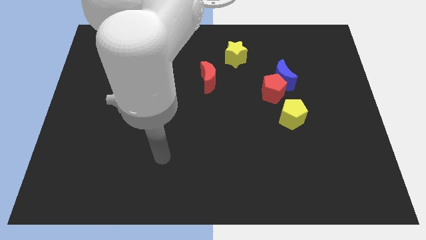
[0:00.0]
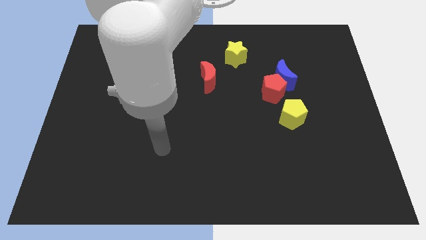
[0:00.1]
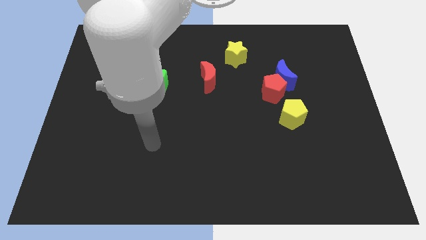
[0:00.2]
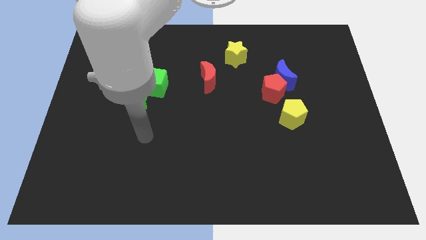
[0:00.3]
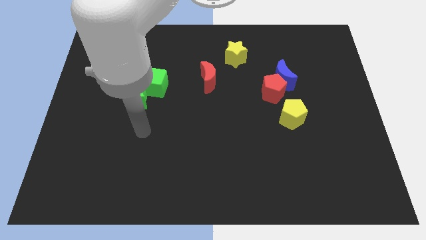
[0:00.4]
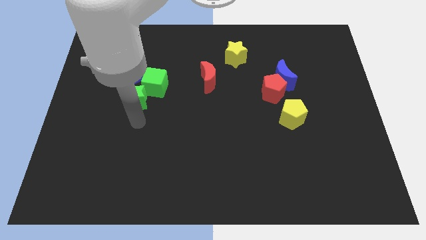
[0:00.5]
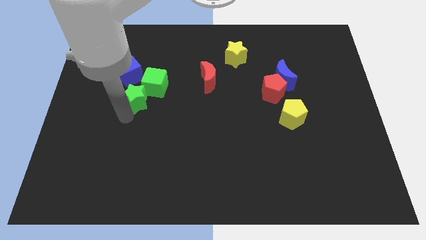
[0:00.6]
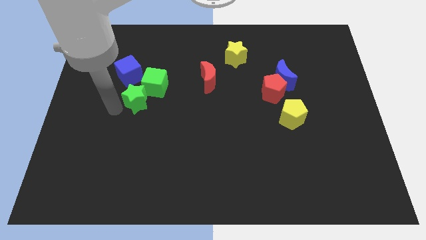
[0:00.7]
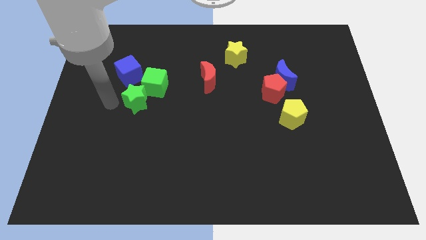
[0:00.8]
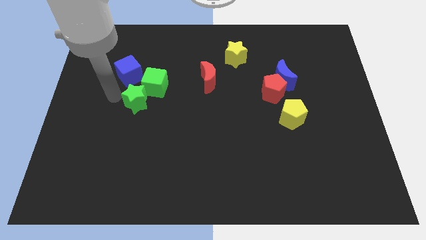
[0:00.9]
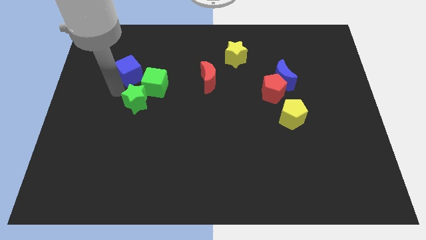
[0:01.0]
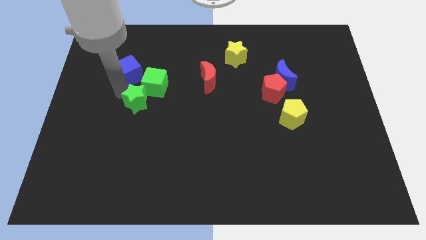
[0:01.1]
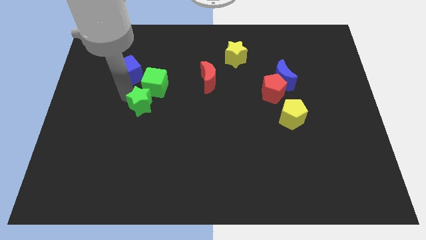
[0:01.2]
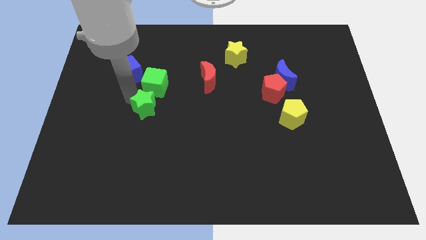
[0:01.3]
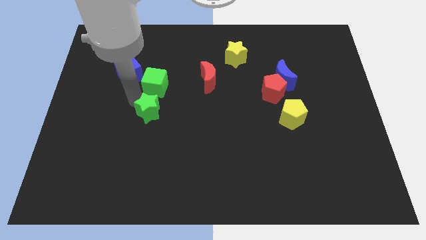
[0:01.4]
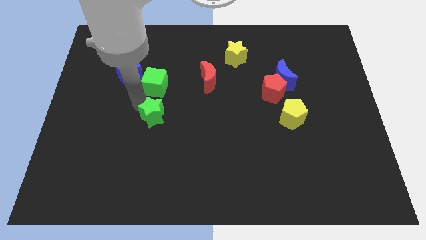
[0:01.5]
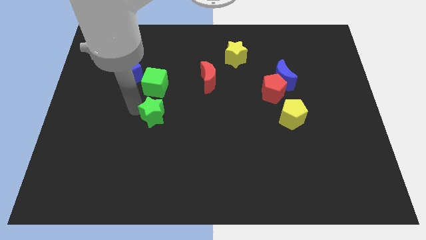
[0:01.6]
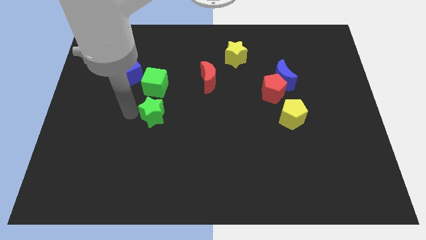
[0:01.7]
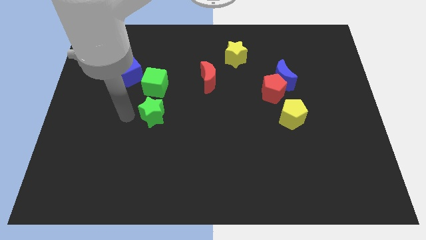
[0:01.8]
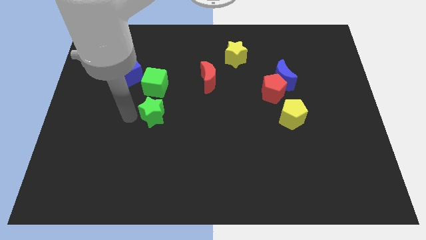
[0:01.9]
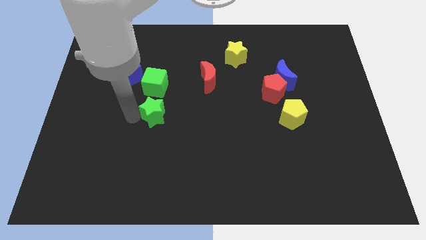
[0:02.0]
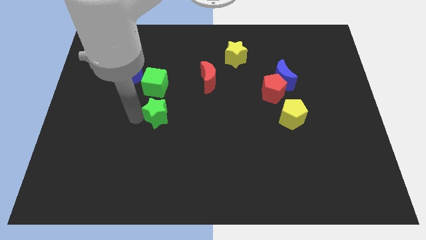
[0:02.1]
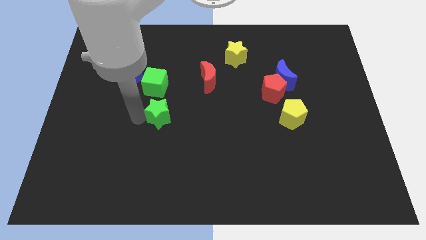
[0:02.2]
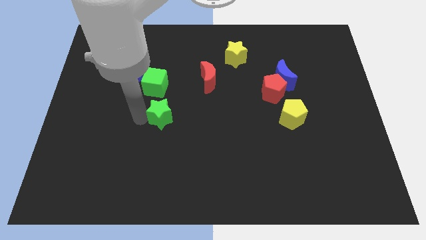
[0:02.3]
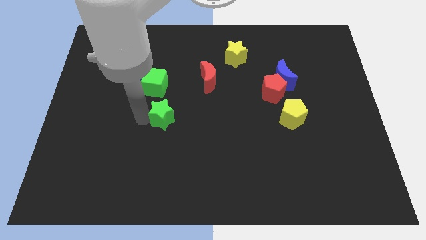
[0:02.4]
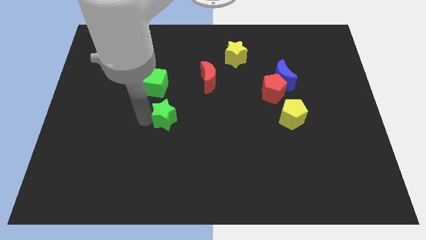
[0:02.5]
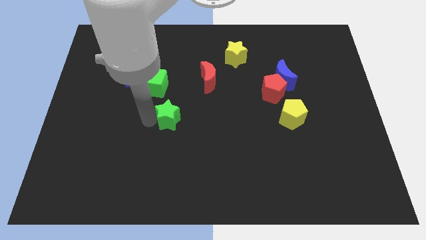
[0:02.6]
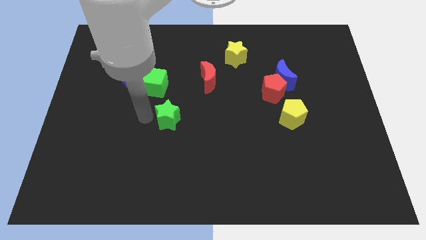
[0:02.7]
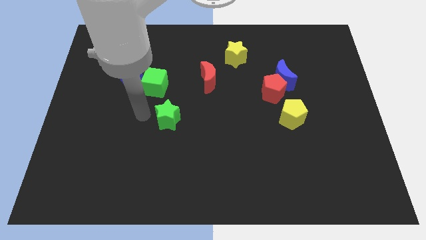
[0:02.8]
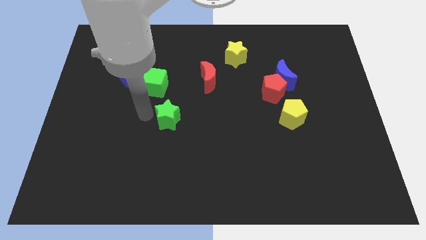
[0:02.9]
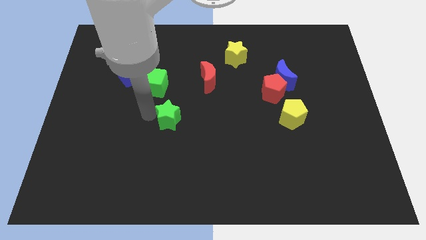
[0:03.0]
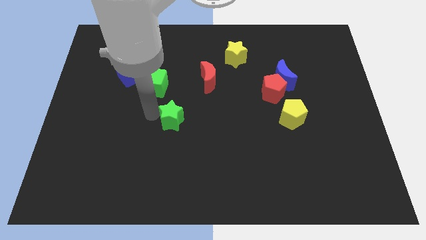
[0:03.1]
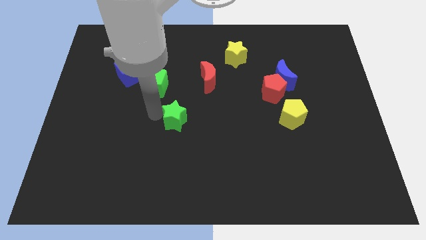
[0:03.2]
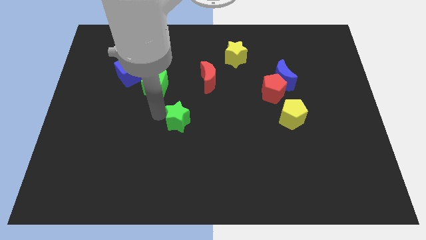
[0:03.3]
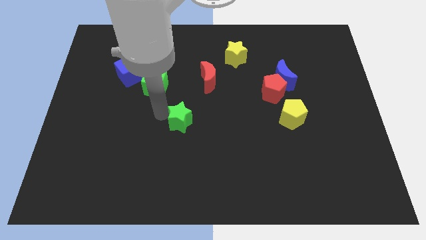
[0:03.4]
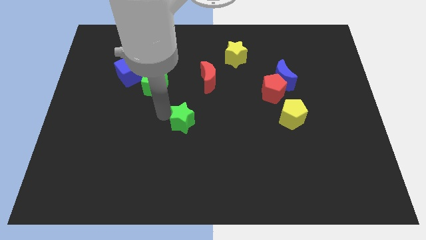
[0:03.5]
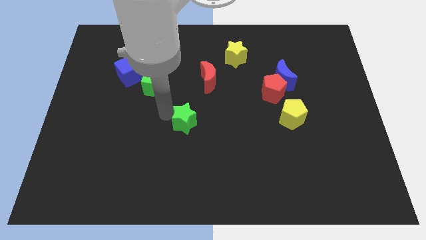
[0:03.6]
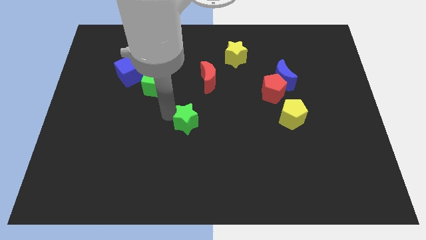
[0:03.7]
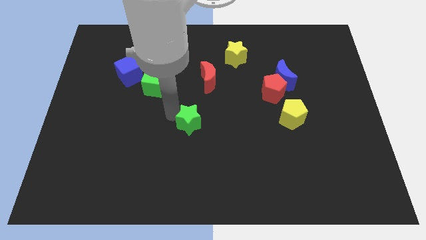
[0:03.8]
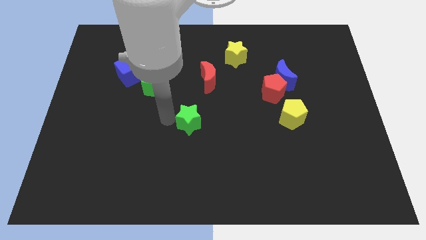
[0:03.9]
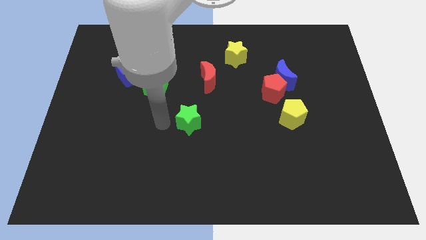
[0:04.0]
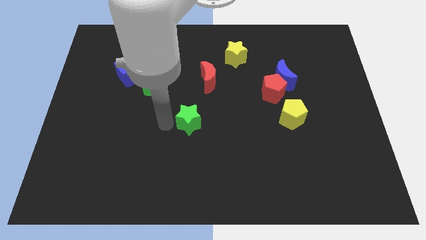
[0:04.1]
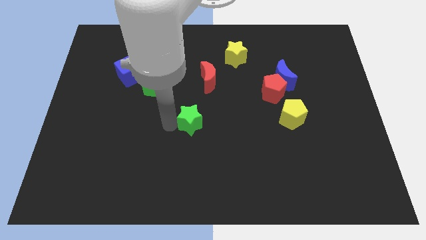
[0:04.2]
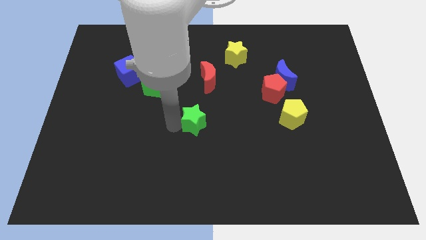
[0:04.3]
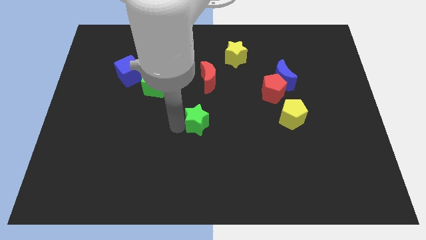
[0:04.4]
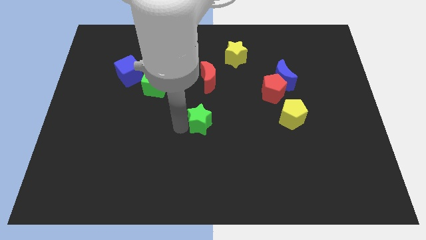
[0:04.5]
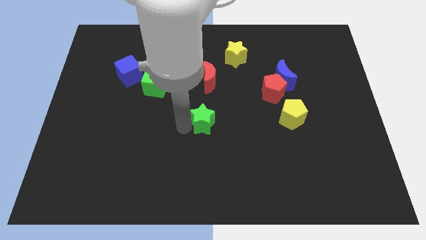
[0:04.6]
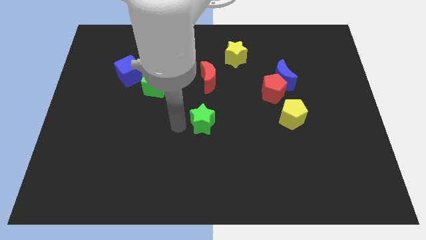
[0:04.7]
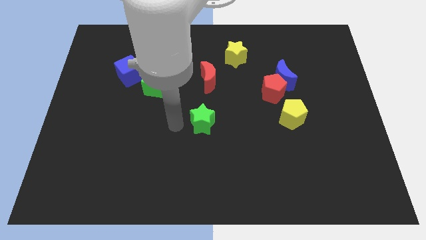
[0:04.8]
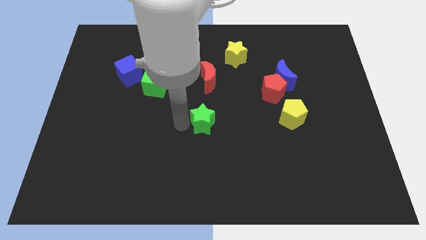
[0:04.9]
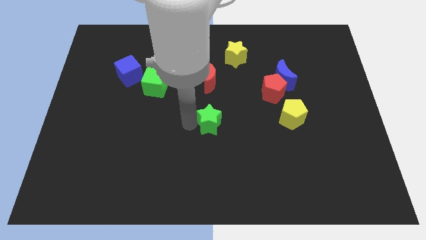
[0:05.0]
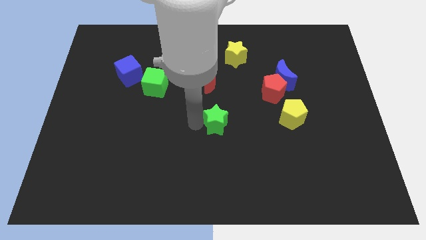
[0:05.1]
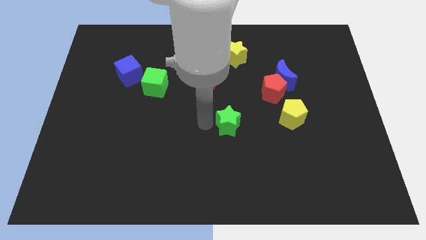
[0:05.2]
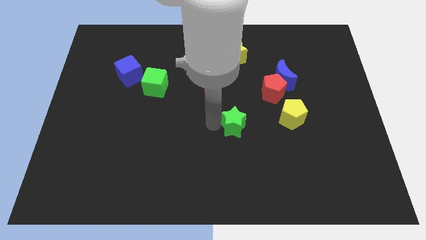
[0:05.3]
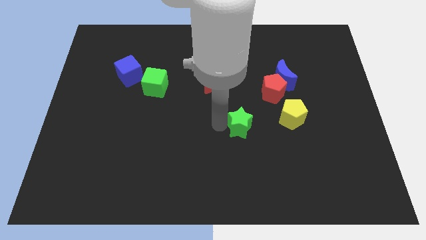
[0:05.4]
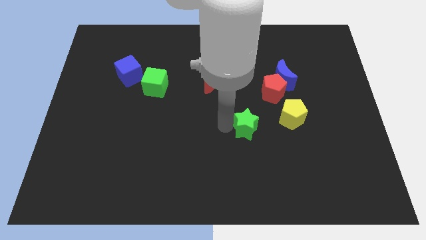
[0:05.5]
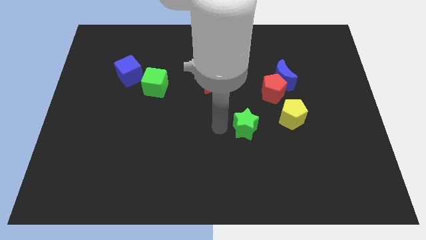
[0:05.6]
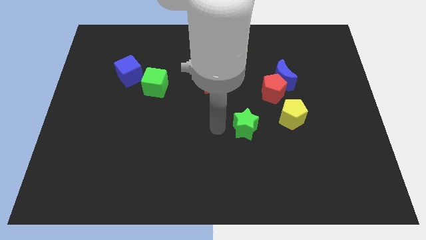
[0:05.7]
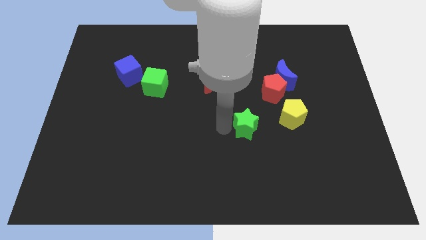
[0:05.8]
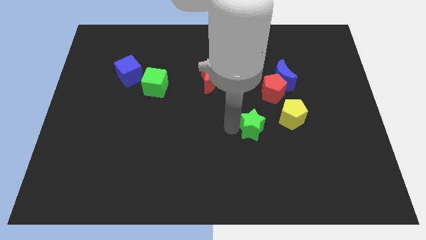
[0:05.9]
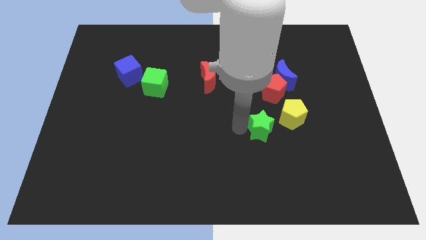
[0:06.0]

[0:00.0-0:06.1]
put the green star below the red pentagon

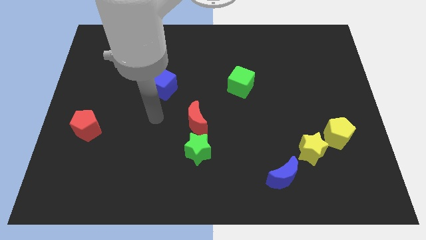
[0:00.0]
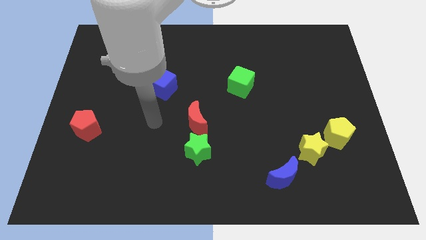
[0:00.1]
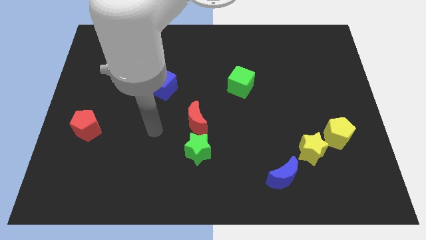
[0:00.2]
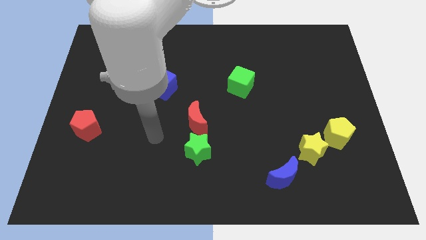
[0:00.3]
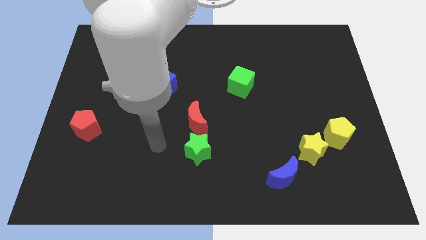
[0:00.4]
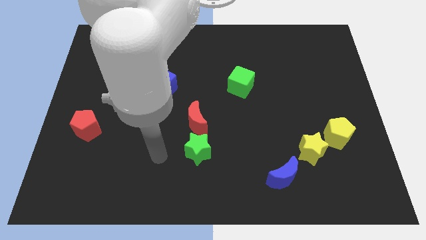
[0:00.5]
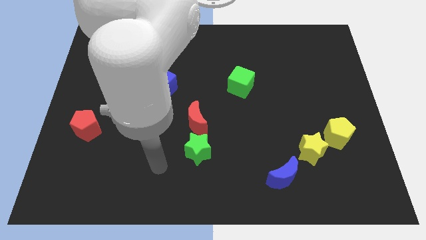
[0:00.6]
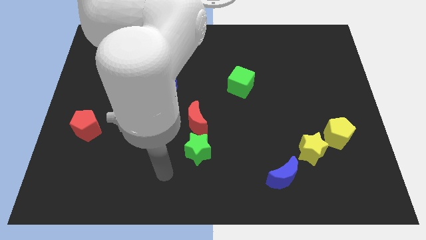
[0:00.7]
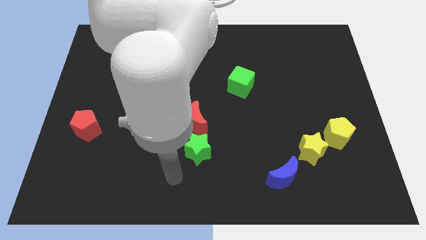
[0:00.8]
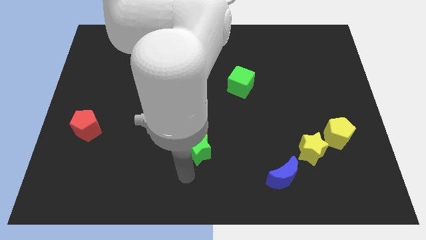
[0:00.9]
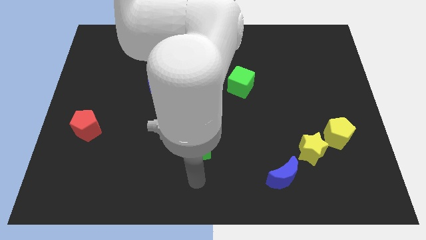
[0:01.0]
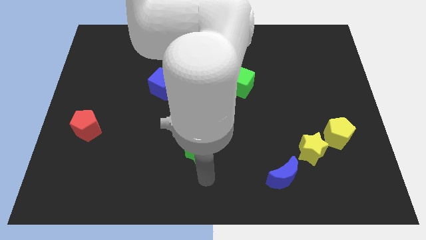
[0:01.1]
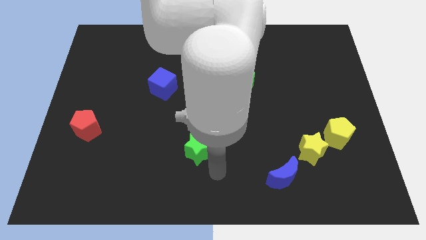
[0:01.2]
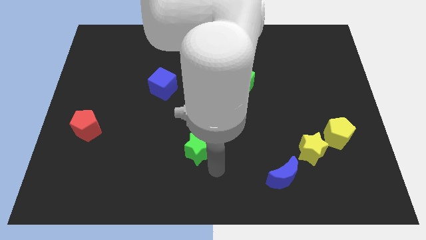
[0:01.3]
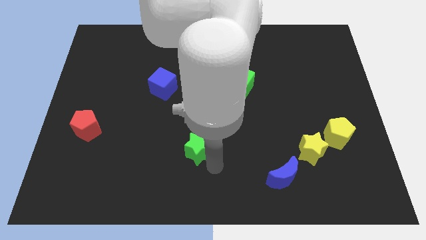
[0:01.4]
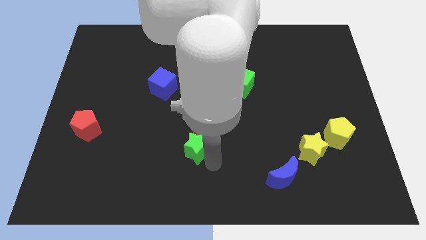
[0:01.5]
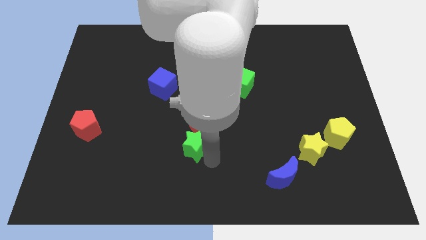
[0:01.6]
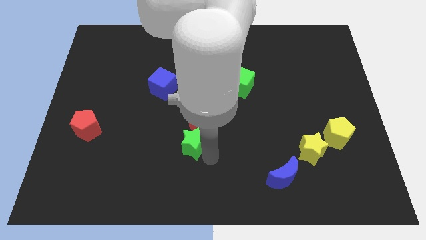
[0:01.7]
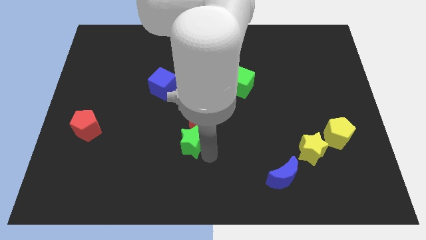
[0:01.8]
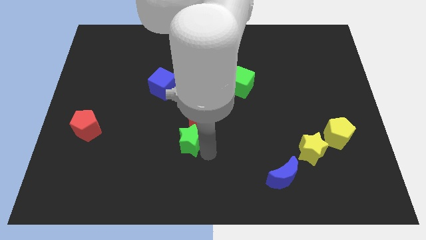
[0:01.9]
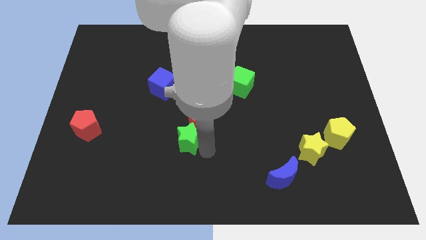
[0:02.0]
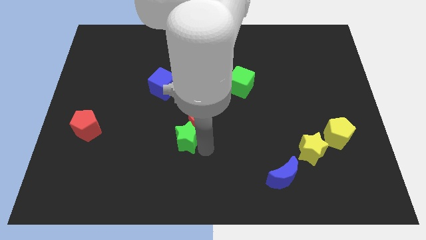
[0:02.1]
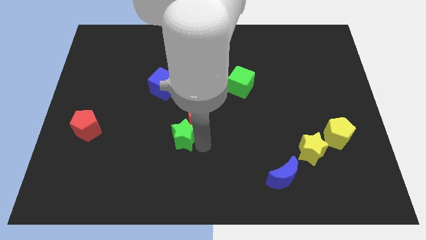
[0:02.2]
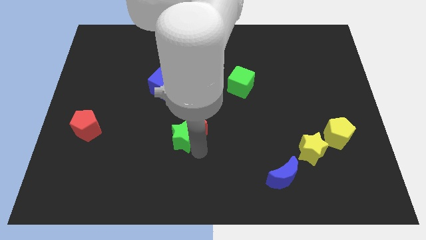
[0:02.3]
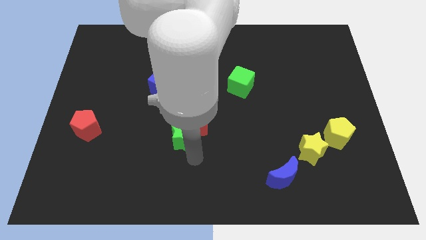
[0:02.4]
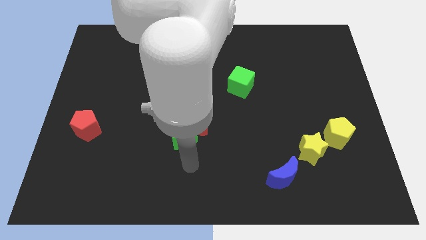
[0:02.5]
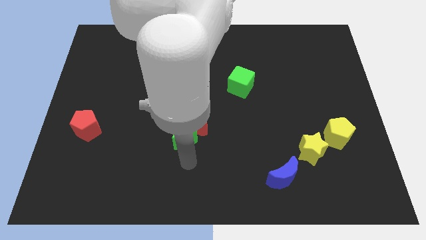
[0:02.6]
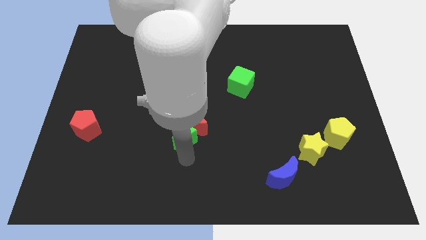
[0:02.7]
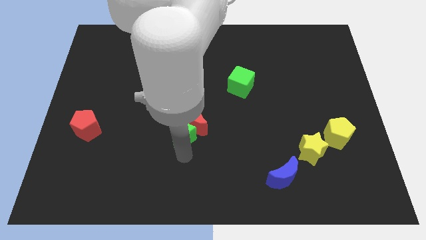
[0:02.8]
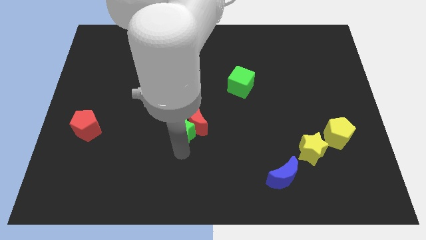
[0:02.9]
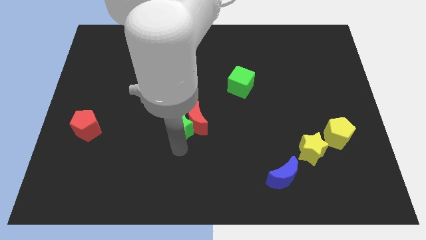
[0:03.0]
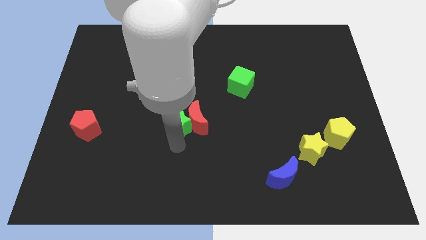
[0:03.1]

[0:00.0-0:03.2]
put the green star to the top left of the red moon
